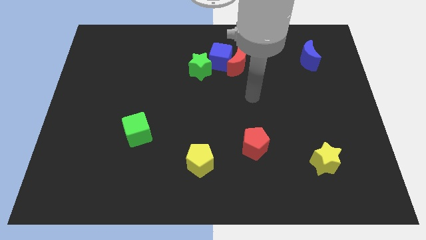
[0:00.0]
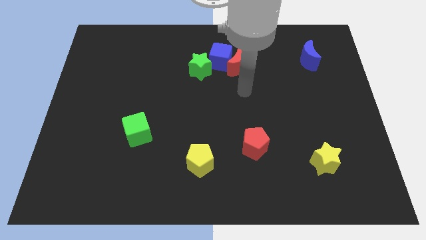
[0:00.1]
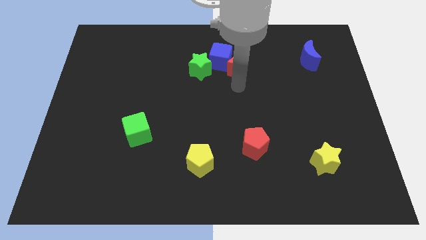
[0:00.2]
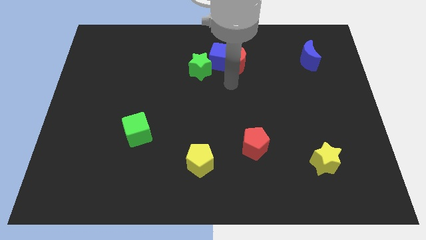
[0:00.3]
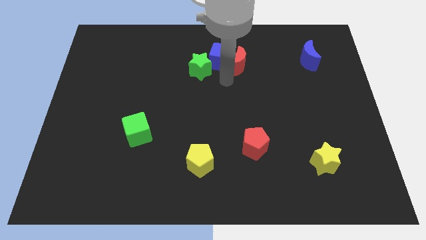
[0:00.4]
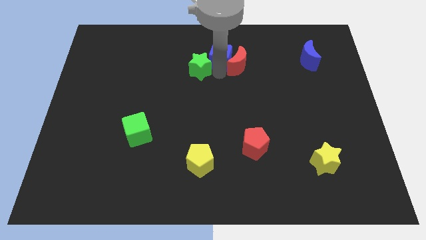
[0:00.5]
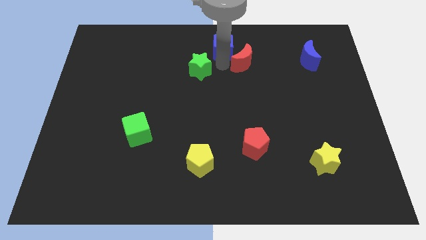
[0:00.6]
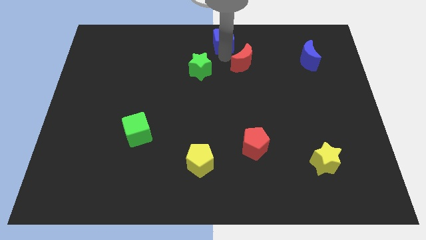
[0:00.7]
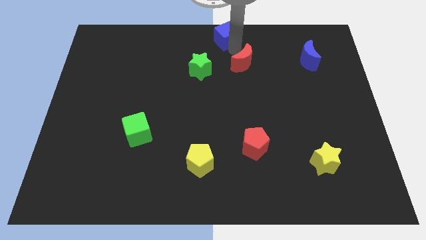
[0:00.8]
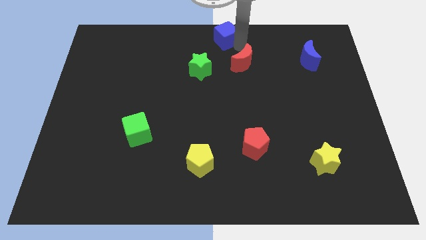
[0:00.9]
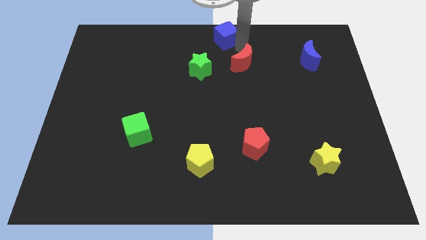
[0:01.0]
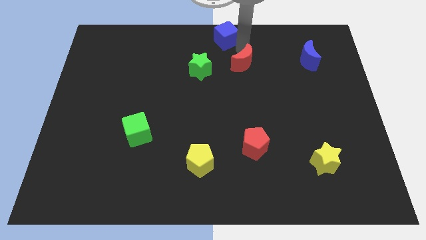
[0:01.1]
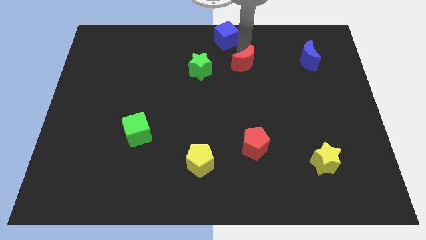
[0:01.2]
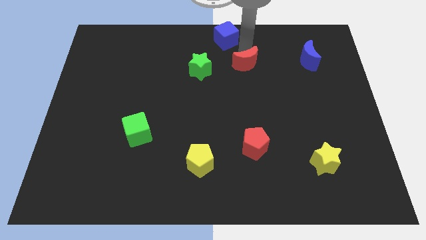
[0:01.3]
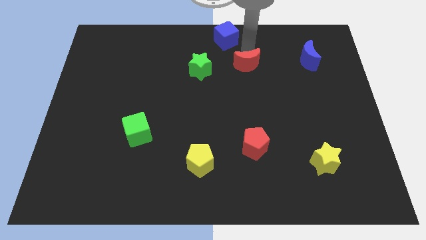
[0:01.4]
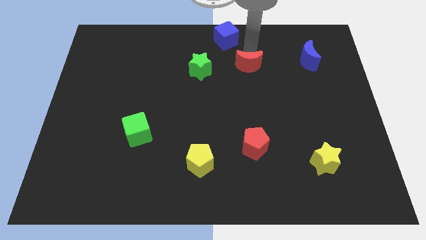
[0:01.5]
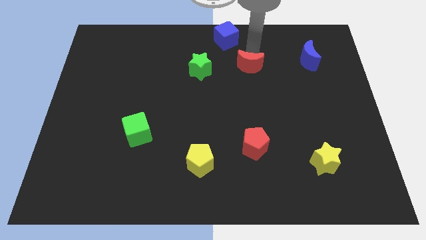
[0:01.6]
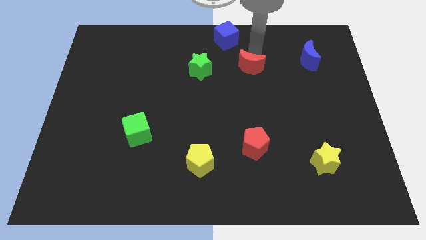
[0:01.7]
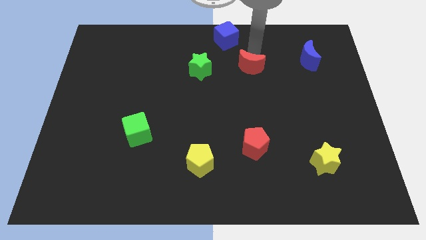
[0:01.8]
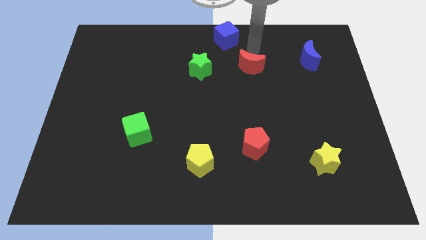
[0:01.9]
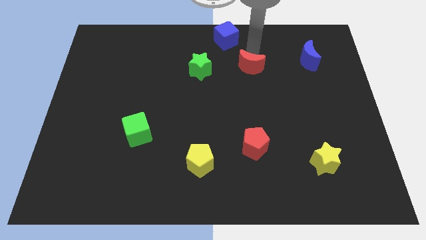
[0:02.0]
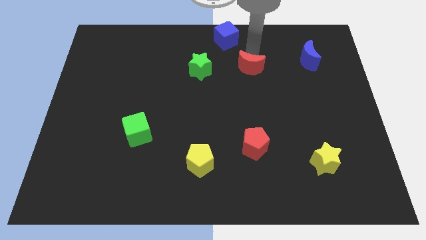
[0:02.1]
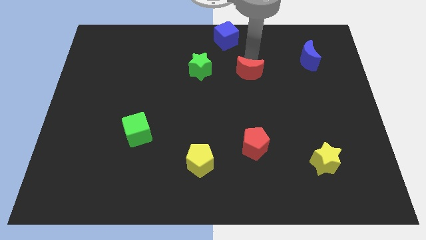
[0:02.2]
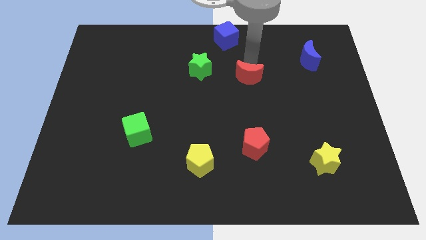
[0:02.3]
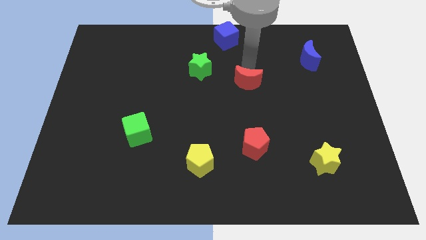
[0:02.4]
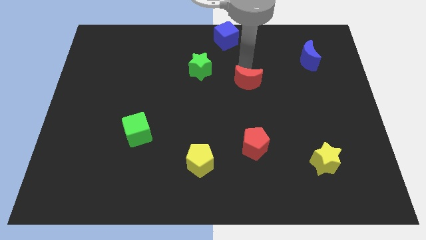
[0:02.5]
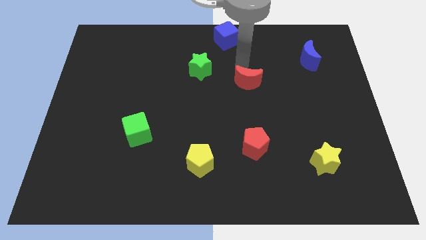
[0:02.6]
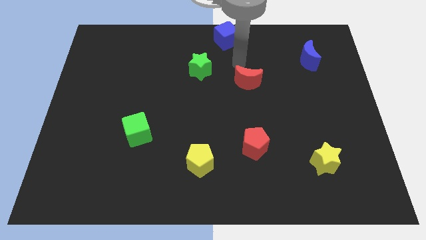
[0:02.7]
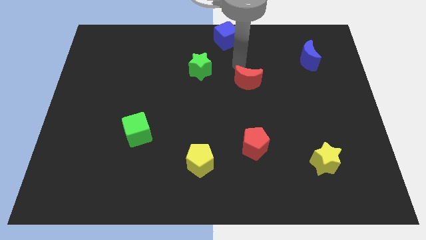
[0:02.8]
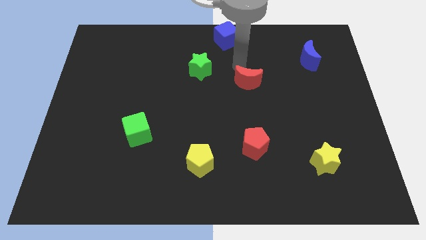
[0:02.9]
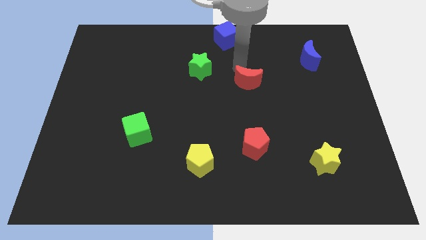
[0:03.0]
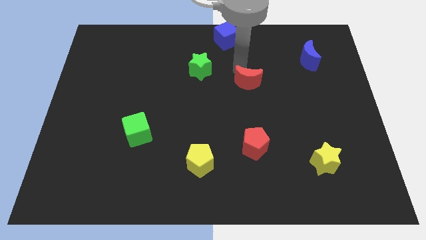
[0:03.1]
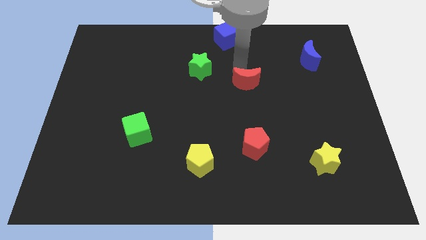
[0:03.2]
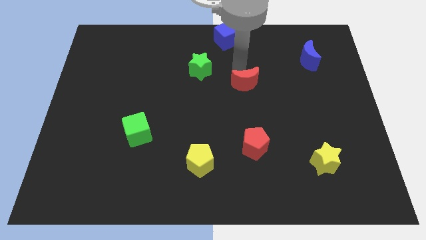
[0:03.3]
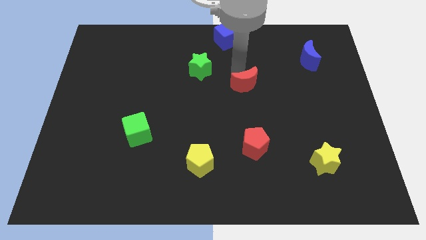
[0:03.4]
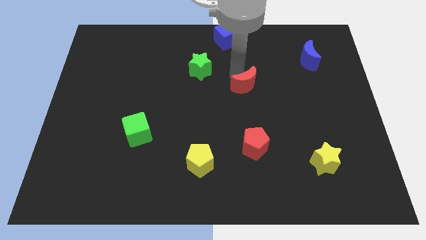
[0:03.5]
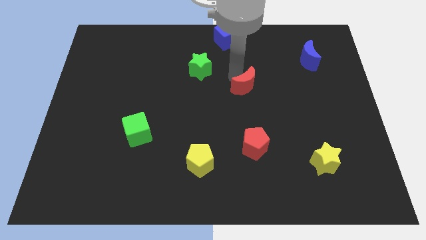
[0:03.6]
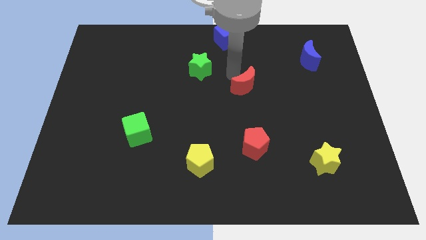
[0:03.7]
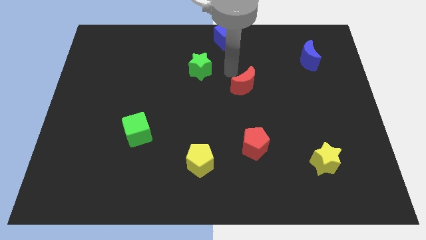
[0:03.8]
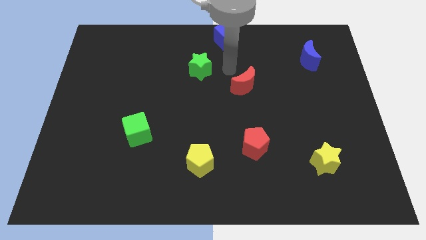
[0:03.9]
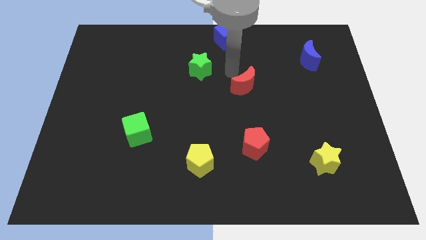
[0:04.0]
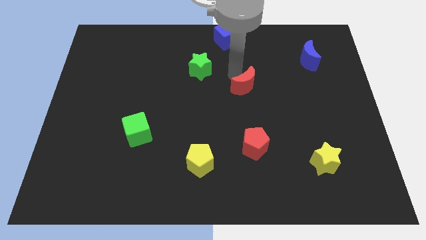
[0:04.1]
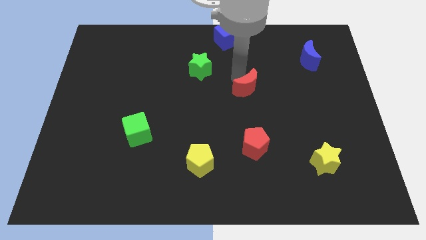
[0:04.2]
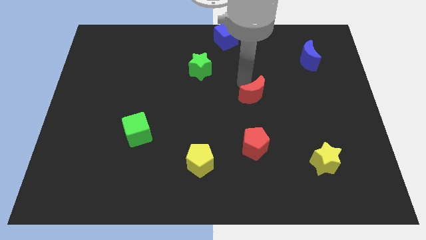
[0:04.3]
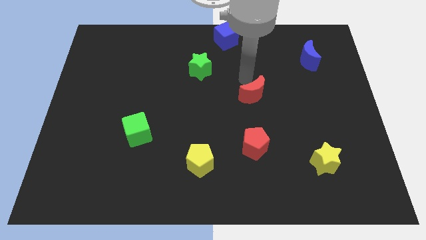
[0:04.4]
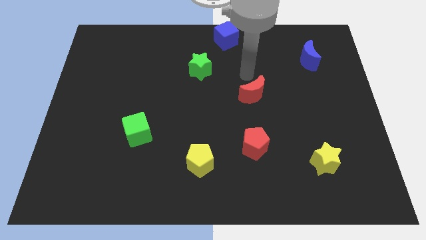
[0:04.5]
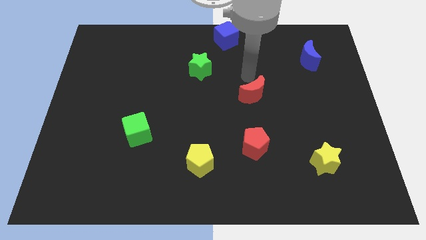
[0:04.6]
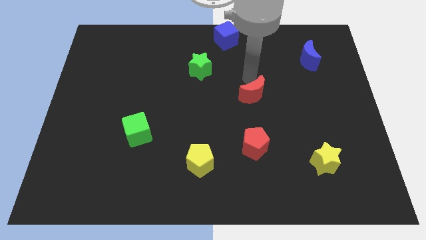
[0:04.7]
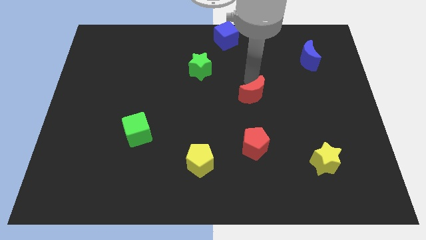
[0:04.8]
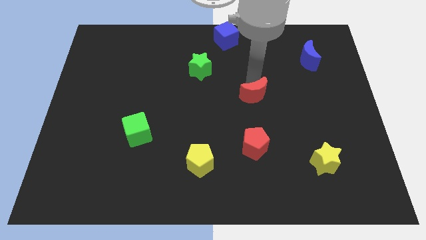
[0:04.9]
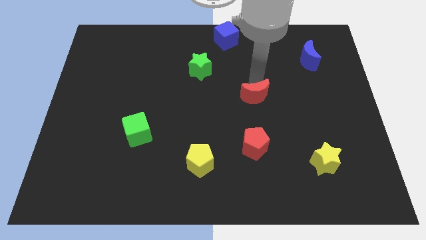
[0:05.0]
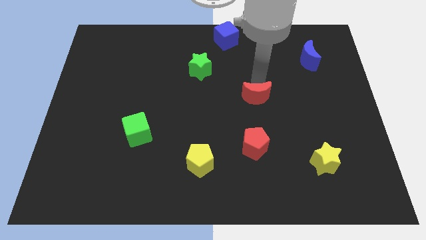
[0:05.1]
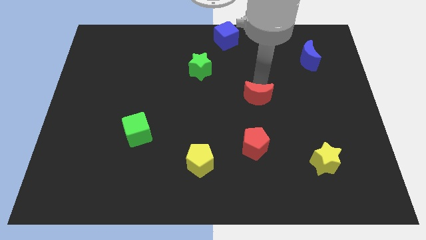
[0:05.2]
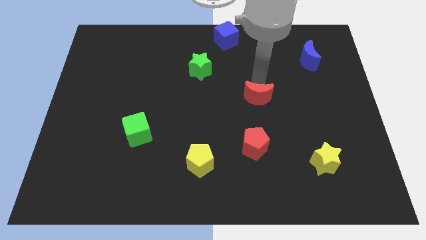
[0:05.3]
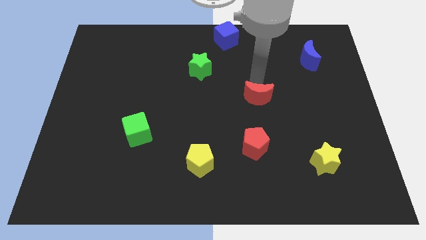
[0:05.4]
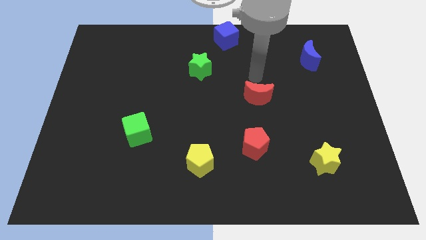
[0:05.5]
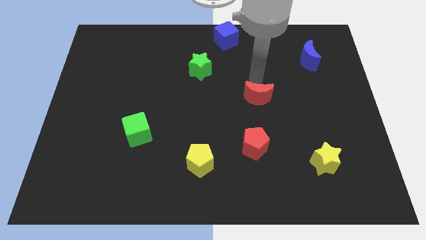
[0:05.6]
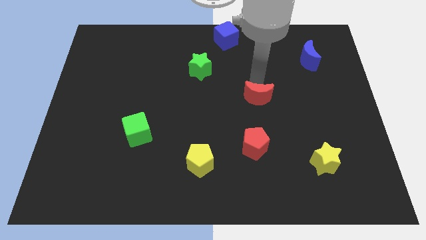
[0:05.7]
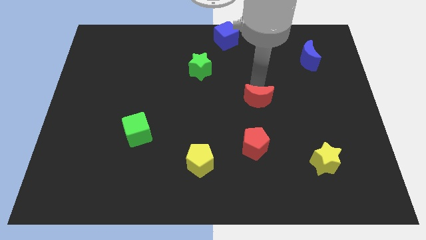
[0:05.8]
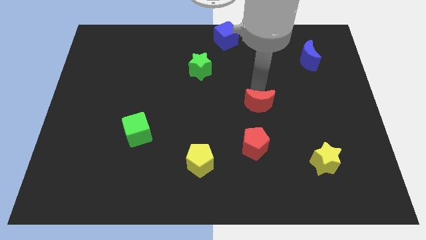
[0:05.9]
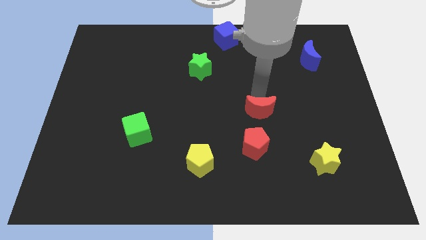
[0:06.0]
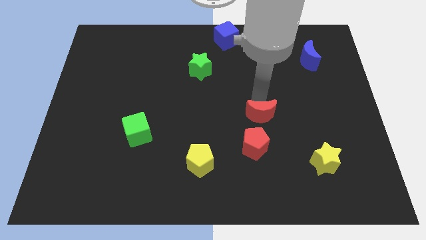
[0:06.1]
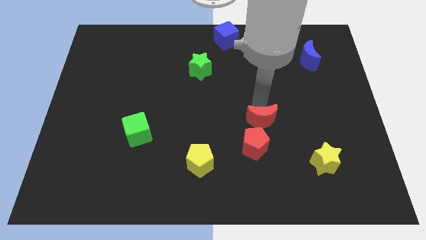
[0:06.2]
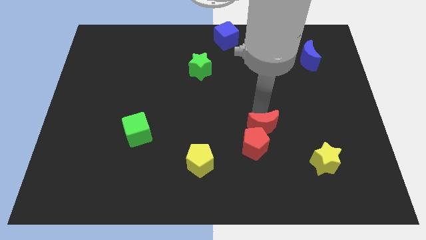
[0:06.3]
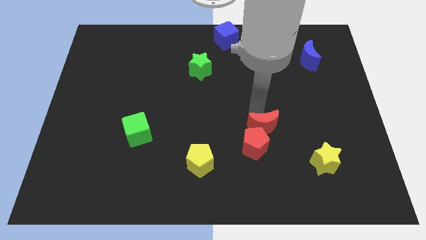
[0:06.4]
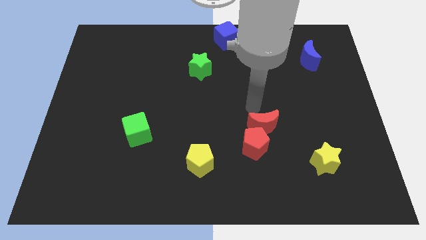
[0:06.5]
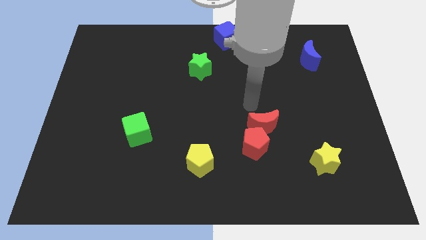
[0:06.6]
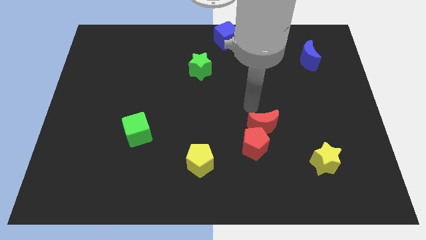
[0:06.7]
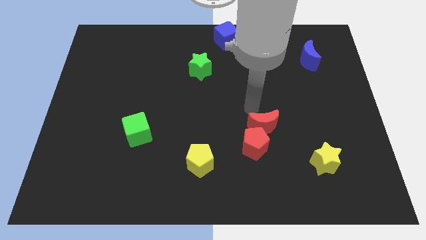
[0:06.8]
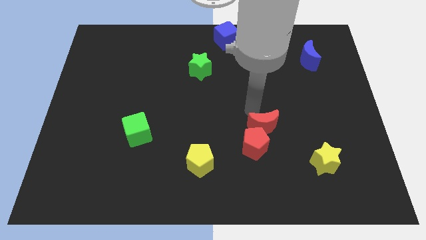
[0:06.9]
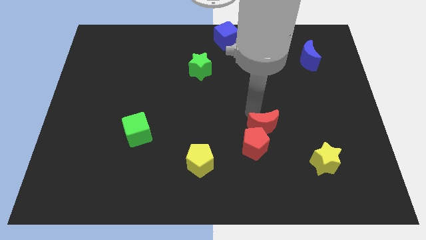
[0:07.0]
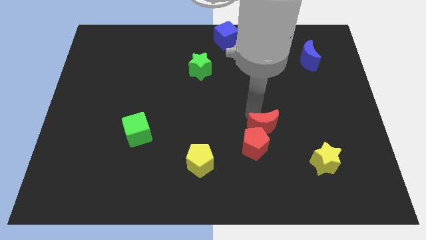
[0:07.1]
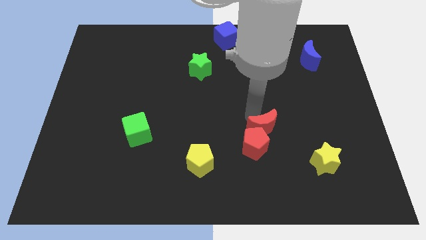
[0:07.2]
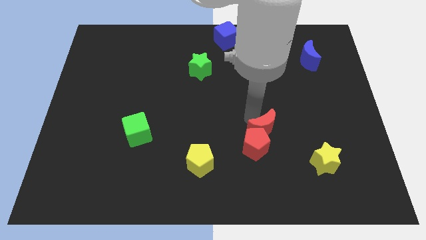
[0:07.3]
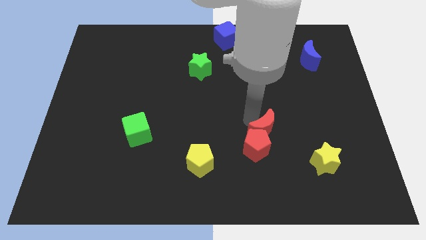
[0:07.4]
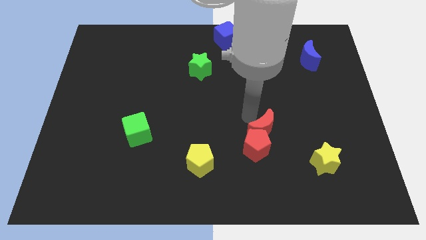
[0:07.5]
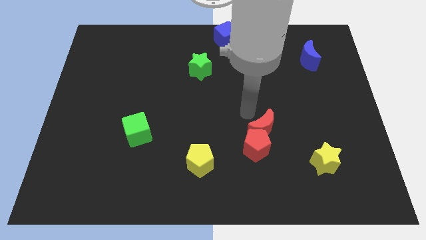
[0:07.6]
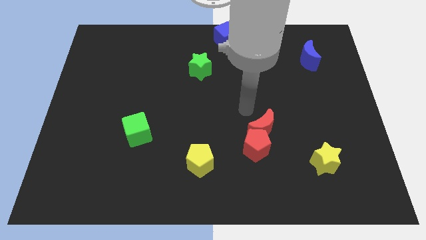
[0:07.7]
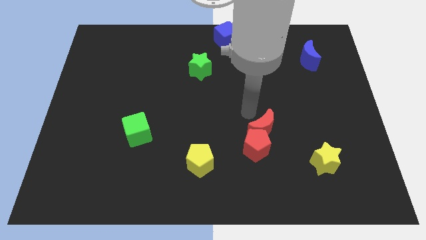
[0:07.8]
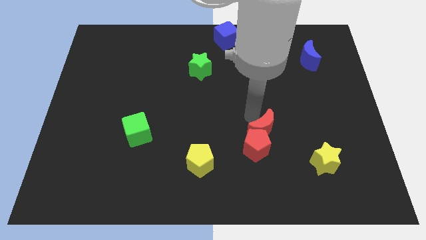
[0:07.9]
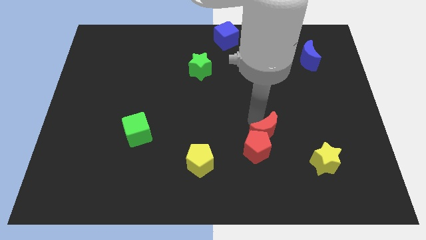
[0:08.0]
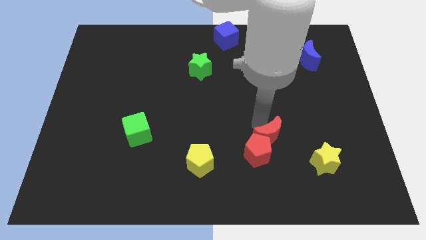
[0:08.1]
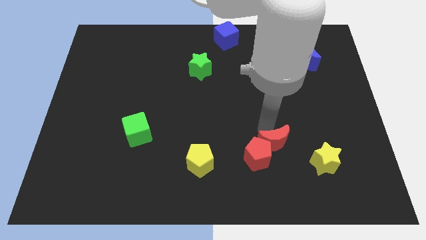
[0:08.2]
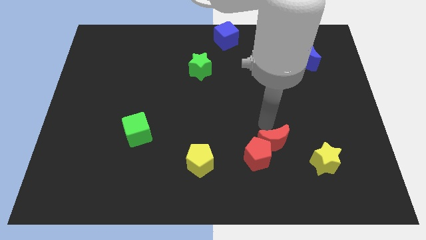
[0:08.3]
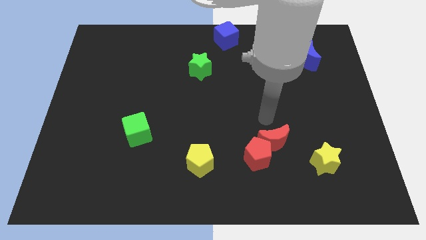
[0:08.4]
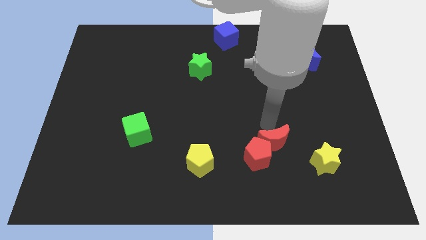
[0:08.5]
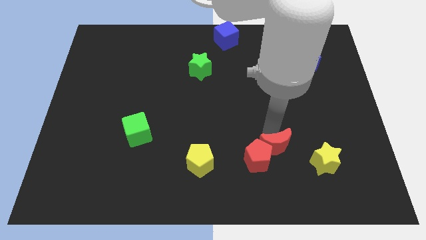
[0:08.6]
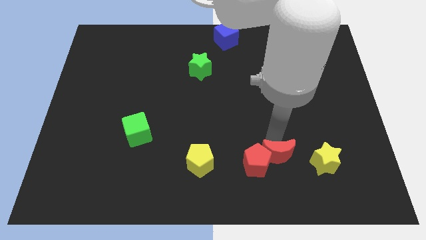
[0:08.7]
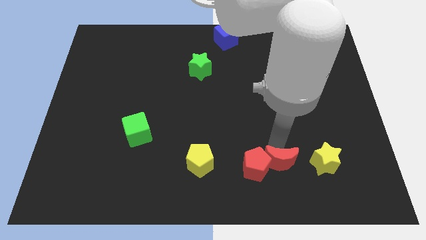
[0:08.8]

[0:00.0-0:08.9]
slide the red moon to the bottom right side of the red pentagon
